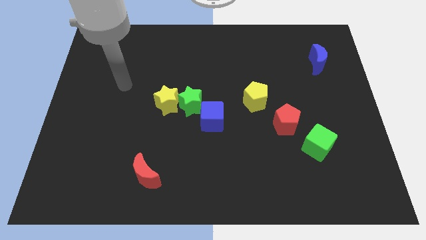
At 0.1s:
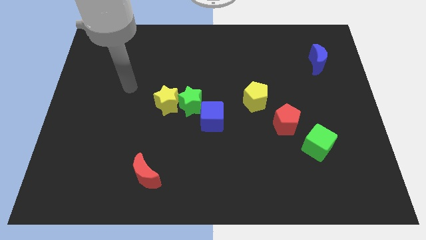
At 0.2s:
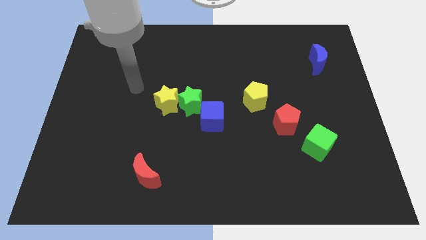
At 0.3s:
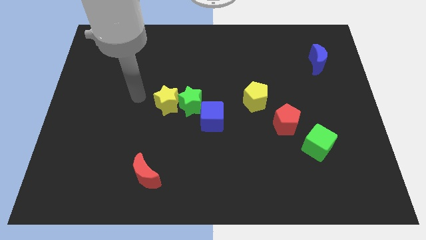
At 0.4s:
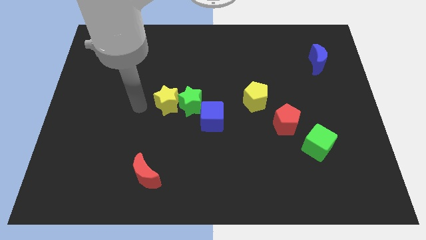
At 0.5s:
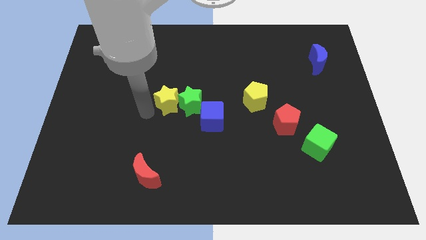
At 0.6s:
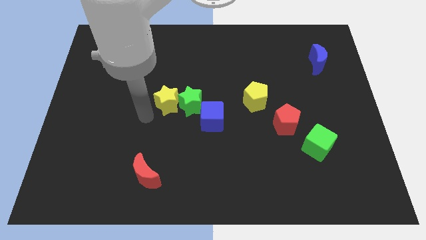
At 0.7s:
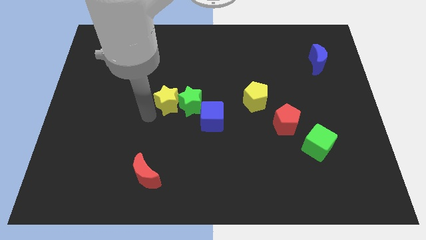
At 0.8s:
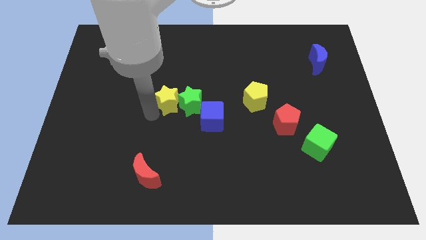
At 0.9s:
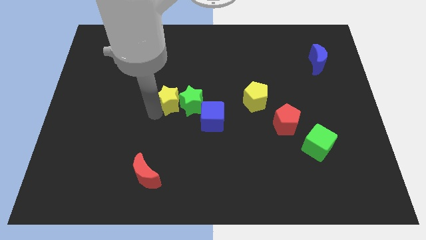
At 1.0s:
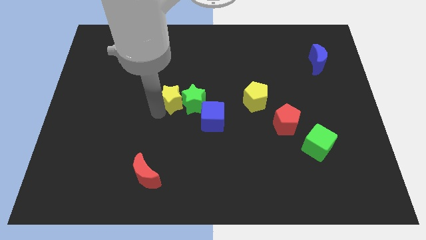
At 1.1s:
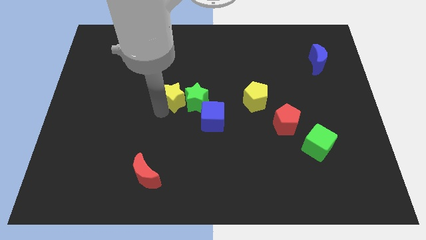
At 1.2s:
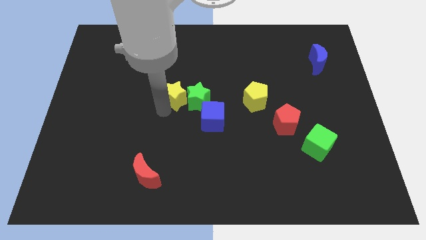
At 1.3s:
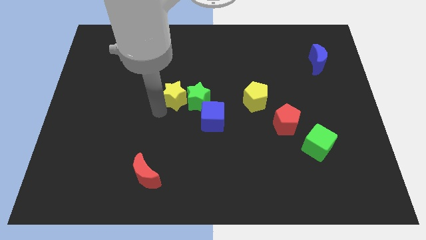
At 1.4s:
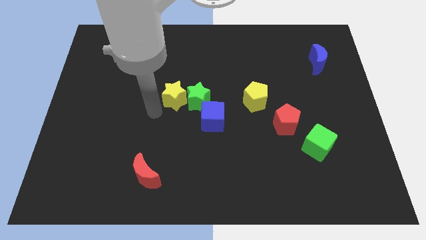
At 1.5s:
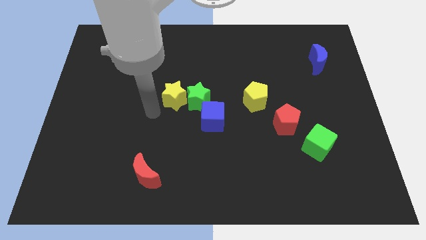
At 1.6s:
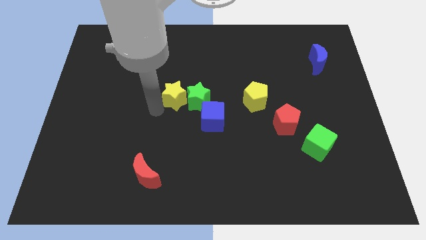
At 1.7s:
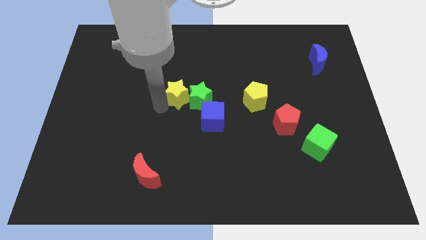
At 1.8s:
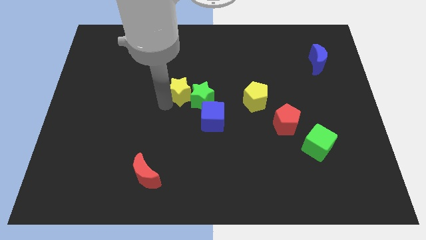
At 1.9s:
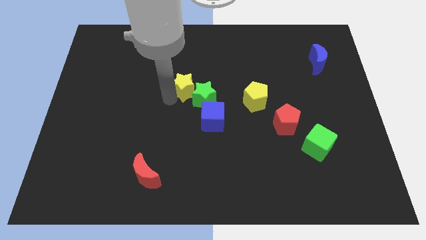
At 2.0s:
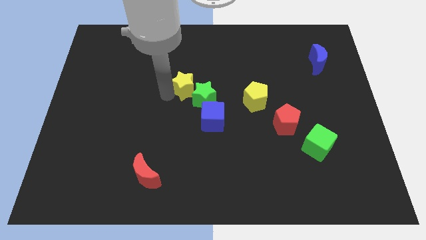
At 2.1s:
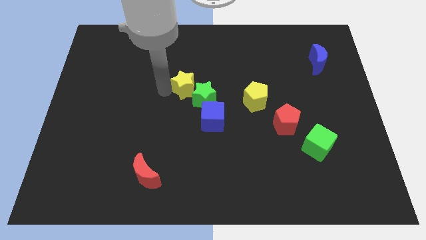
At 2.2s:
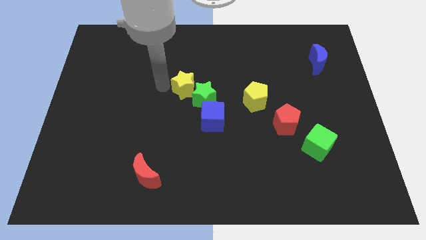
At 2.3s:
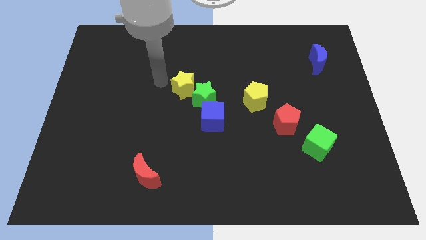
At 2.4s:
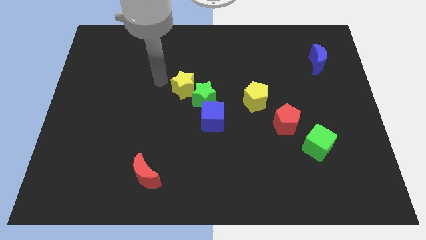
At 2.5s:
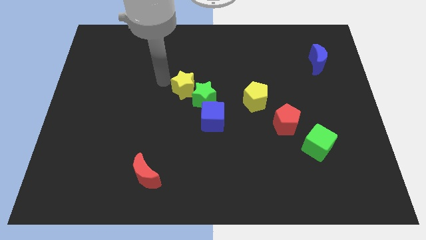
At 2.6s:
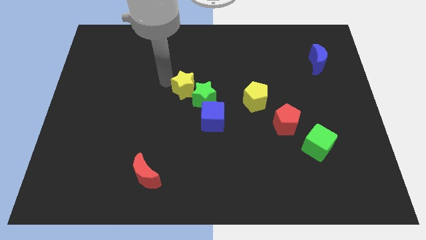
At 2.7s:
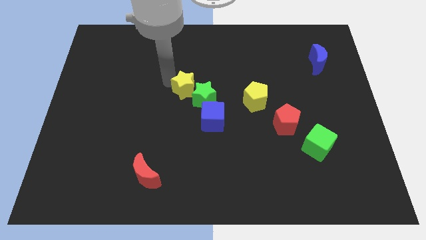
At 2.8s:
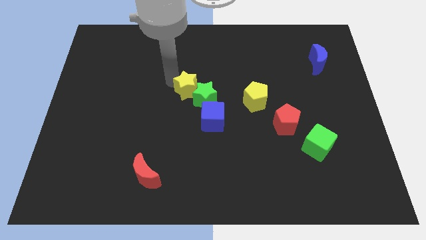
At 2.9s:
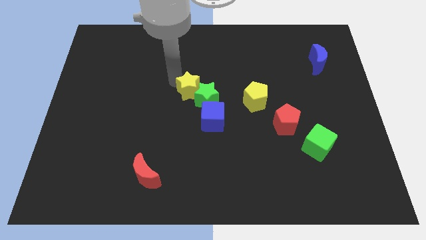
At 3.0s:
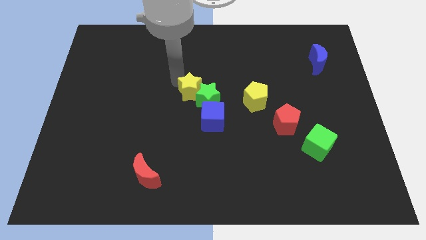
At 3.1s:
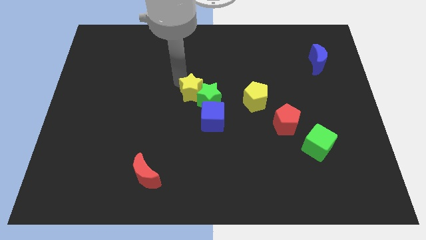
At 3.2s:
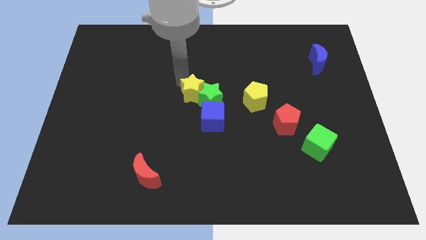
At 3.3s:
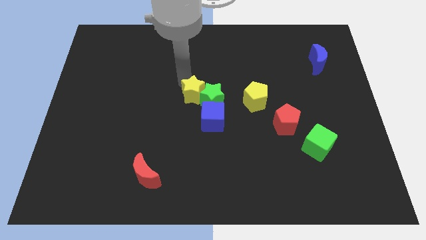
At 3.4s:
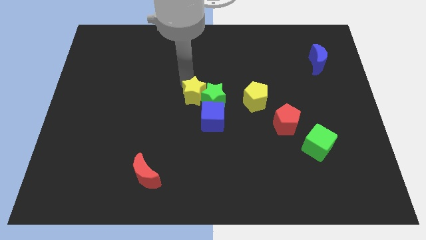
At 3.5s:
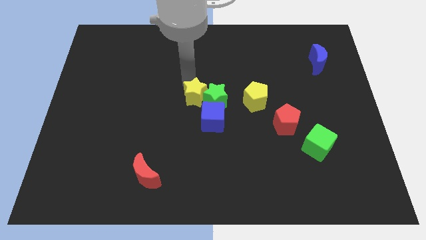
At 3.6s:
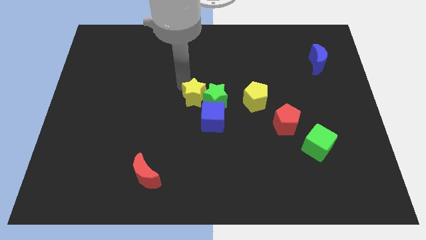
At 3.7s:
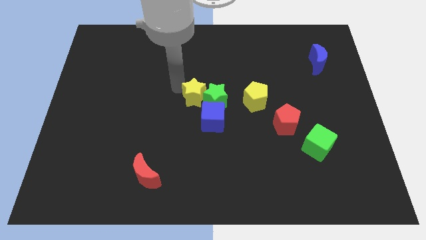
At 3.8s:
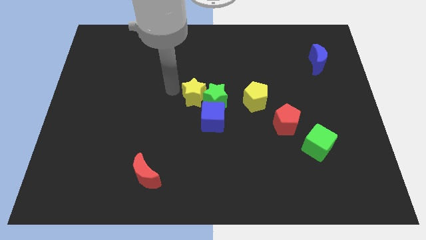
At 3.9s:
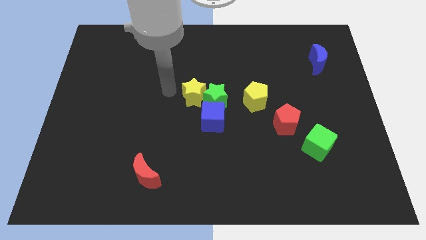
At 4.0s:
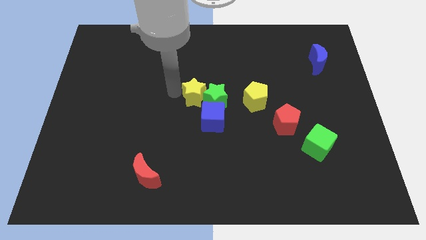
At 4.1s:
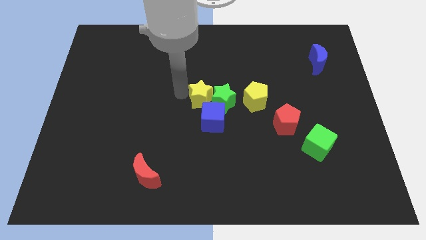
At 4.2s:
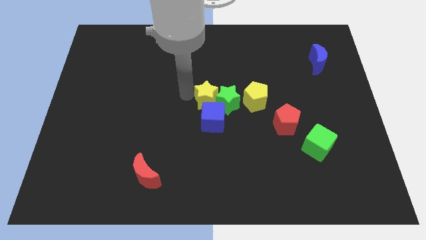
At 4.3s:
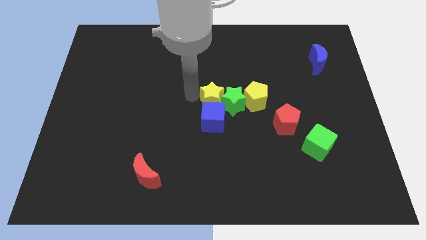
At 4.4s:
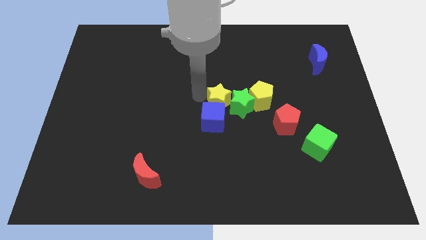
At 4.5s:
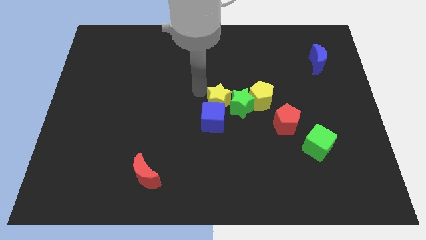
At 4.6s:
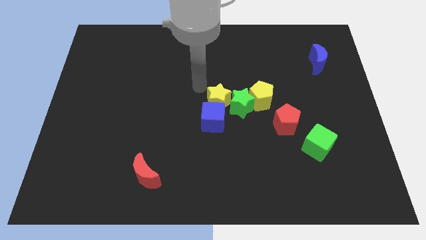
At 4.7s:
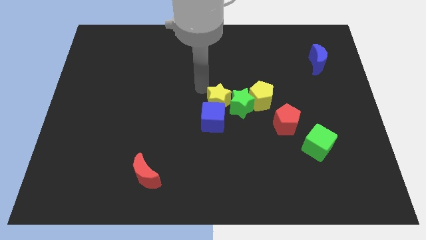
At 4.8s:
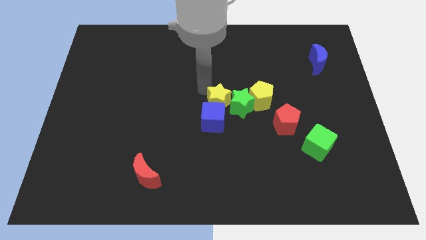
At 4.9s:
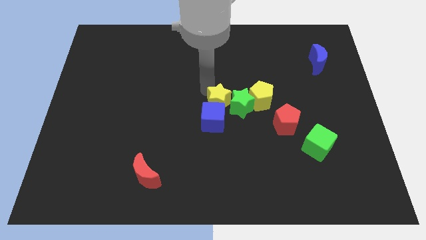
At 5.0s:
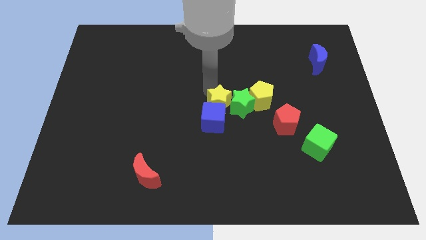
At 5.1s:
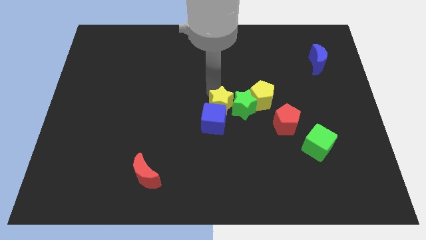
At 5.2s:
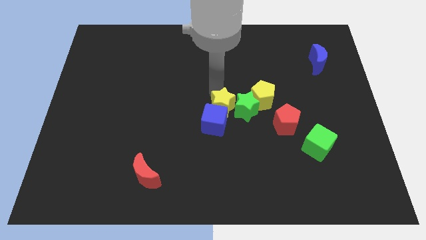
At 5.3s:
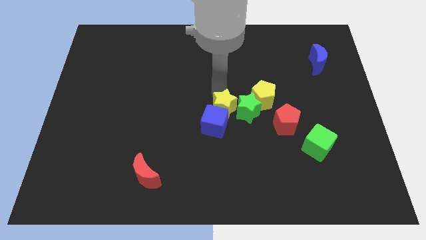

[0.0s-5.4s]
move the yellow star diagonally down and to the left of the yellow pentagon

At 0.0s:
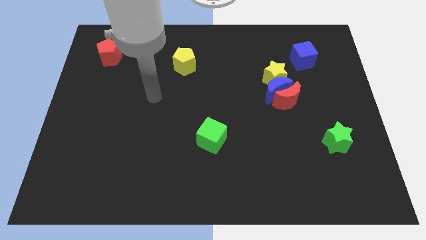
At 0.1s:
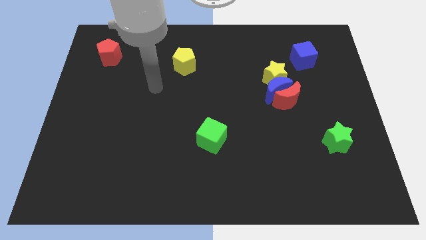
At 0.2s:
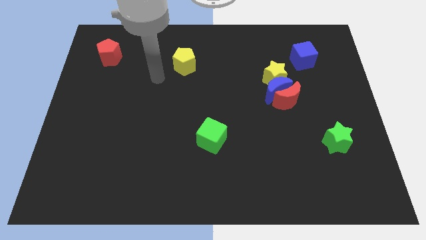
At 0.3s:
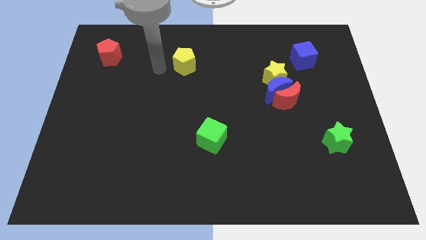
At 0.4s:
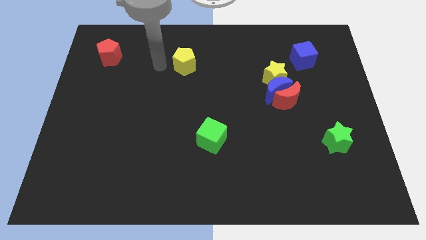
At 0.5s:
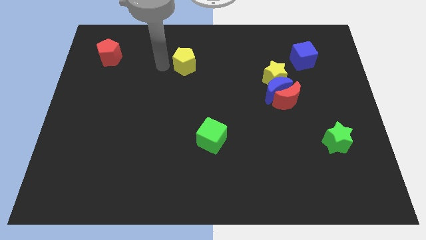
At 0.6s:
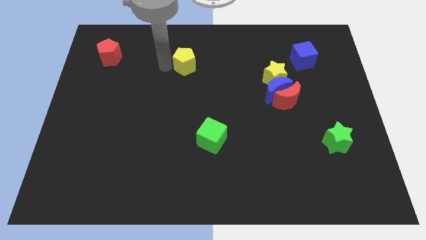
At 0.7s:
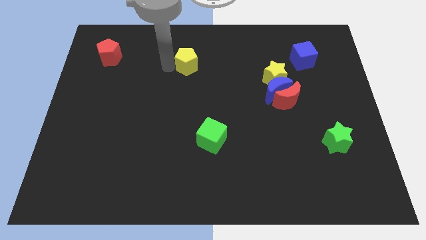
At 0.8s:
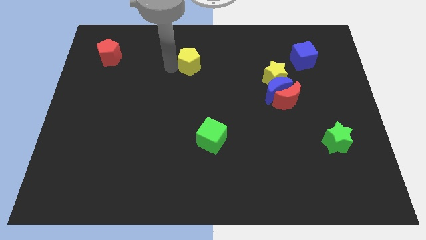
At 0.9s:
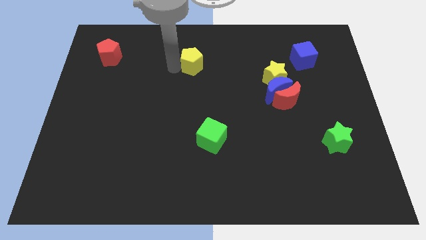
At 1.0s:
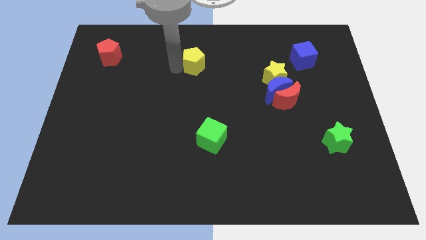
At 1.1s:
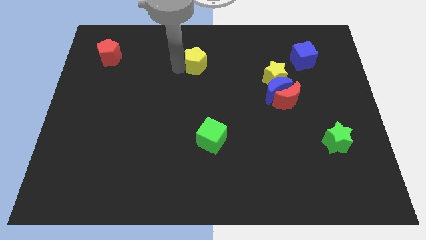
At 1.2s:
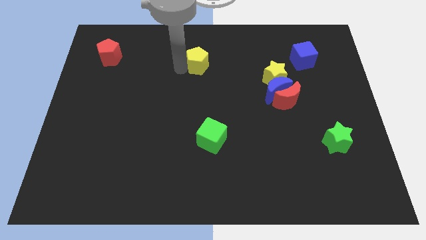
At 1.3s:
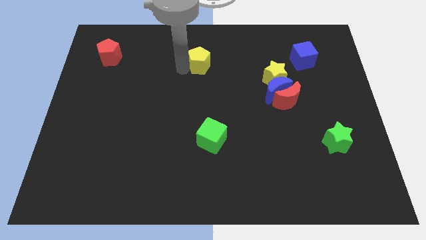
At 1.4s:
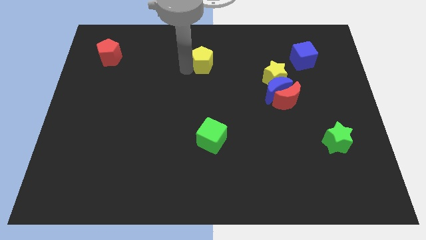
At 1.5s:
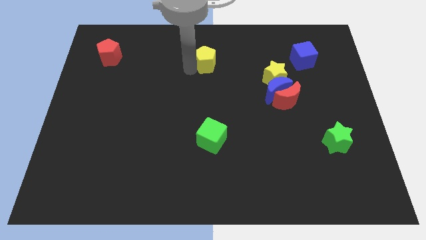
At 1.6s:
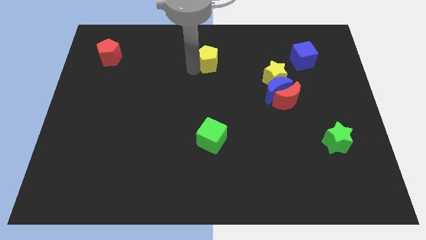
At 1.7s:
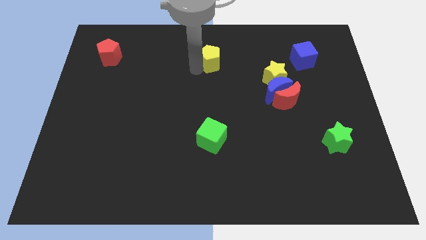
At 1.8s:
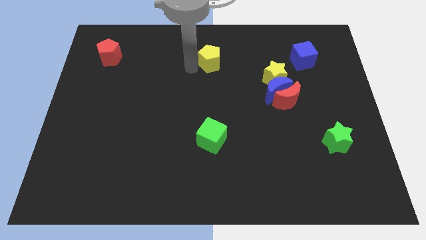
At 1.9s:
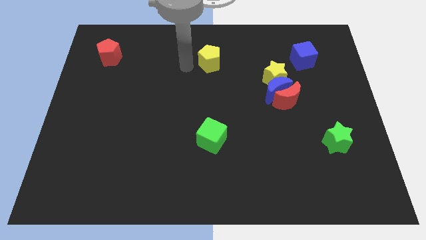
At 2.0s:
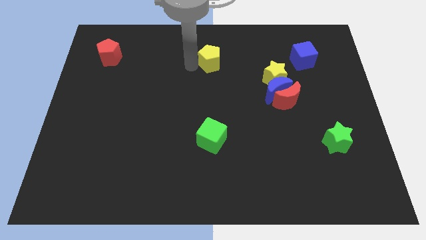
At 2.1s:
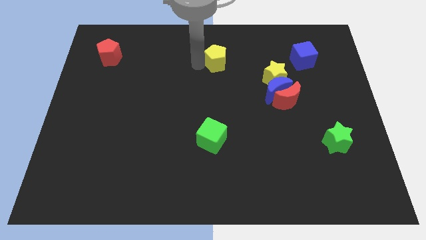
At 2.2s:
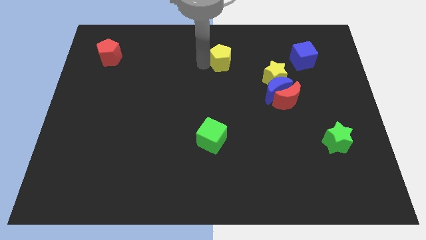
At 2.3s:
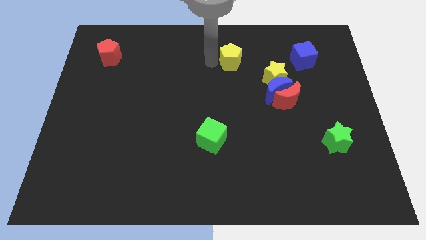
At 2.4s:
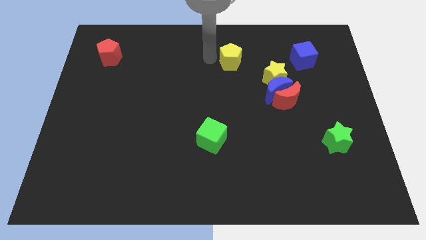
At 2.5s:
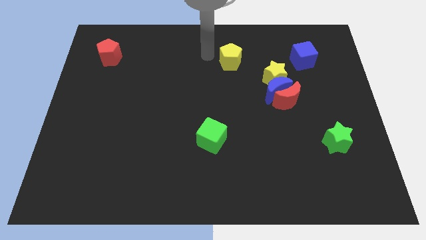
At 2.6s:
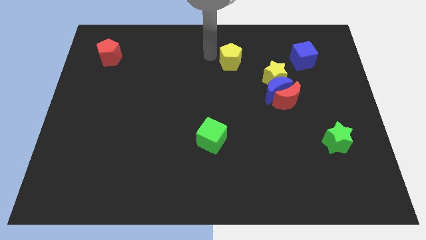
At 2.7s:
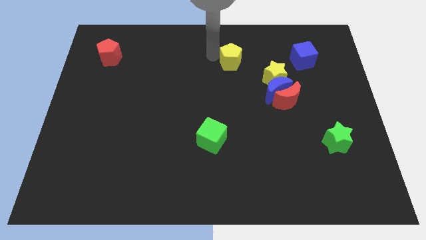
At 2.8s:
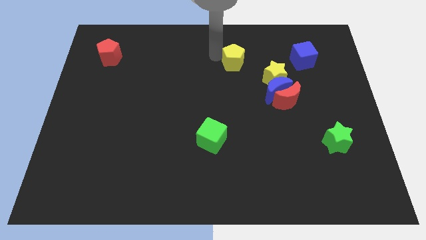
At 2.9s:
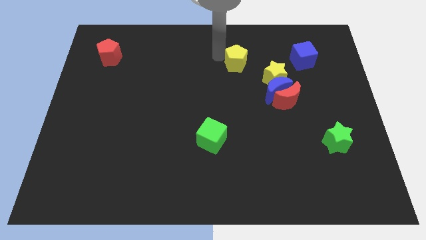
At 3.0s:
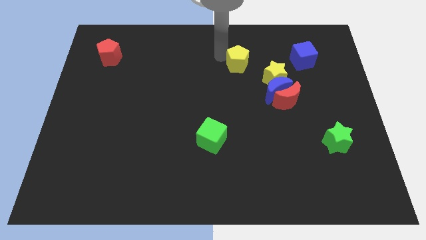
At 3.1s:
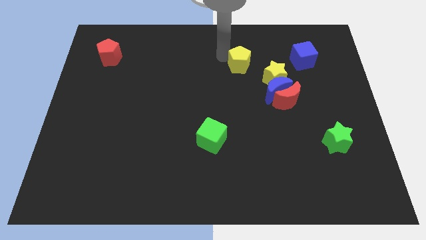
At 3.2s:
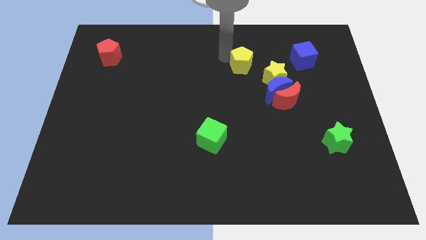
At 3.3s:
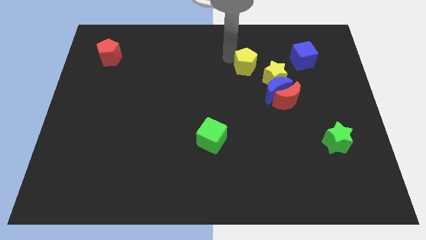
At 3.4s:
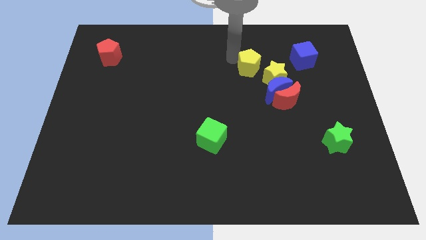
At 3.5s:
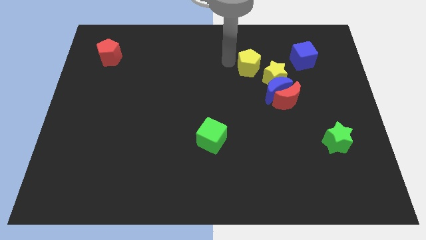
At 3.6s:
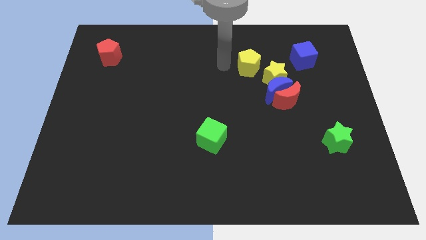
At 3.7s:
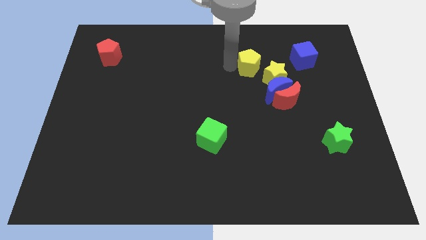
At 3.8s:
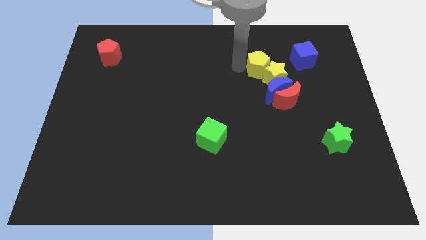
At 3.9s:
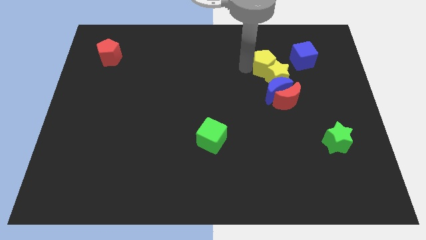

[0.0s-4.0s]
slide the yellow pentagon above the red moon
